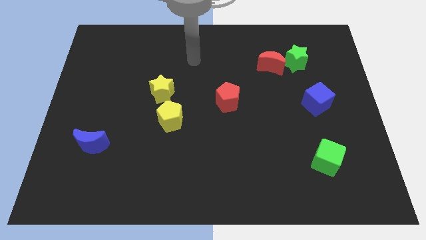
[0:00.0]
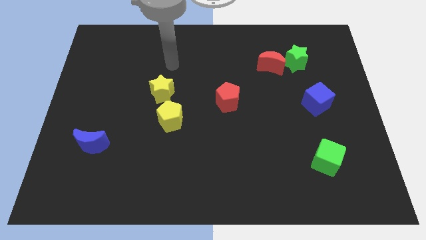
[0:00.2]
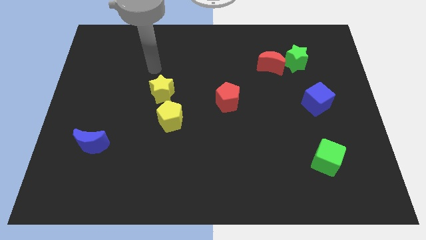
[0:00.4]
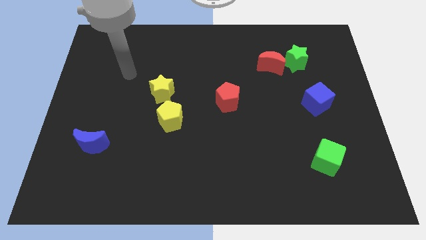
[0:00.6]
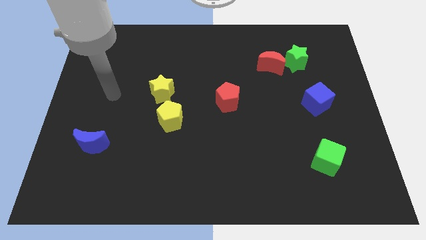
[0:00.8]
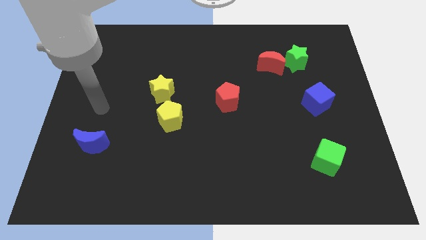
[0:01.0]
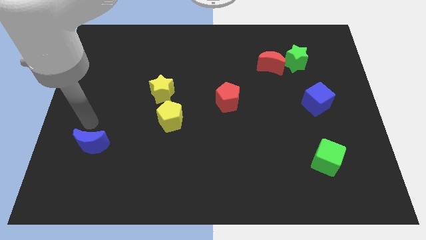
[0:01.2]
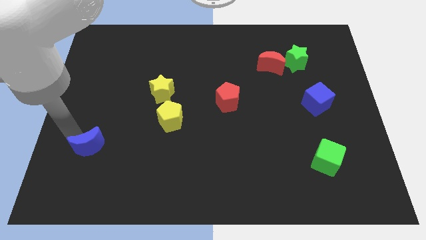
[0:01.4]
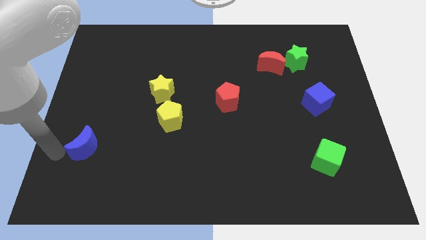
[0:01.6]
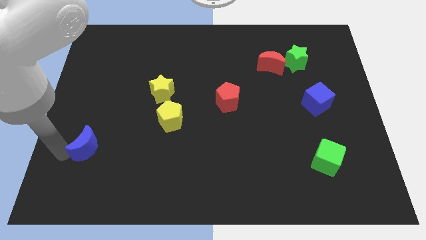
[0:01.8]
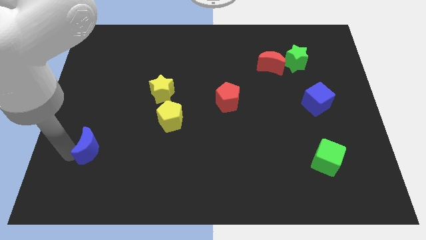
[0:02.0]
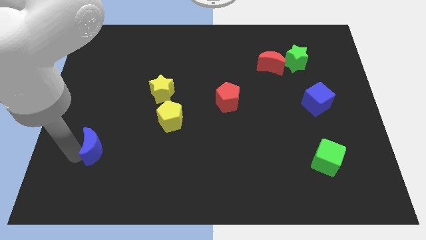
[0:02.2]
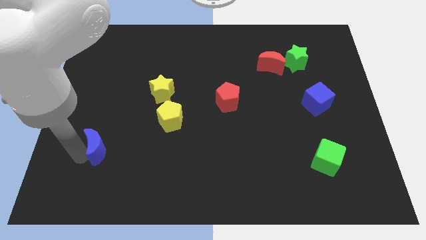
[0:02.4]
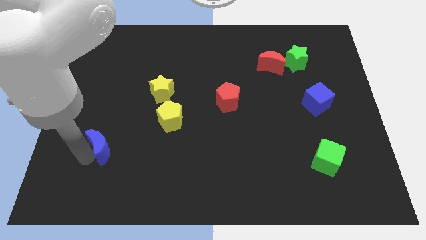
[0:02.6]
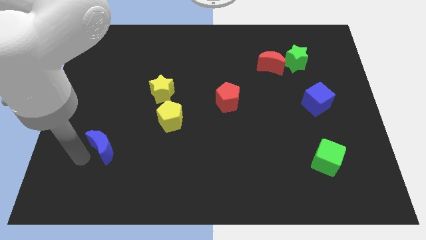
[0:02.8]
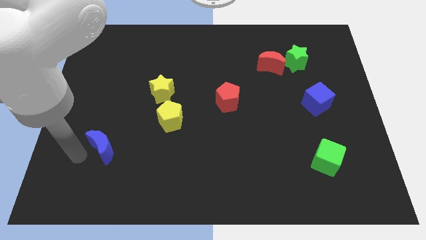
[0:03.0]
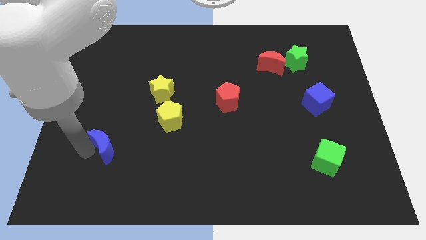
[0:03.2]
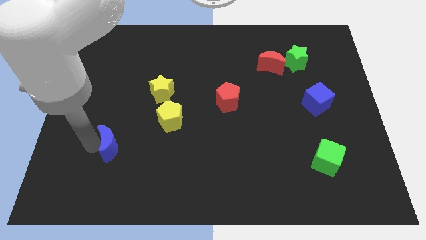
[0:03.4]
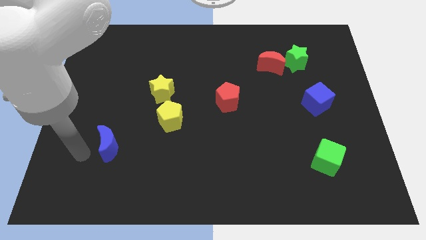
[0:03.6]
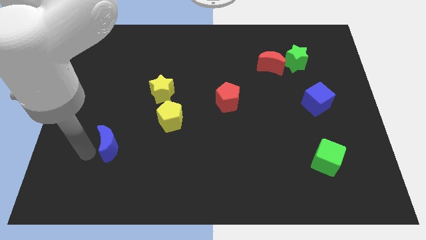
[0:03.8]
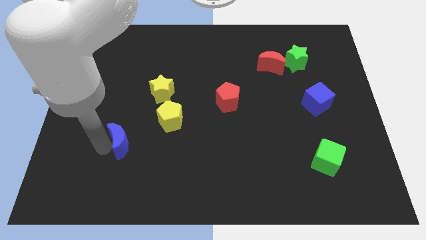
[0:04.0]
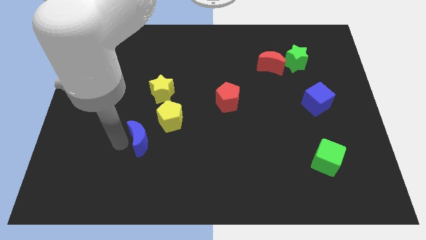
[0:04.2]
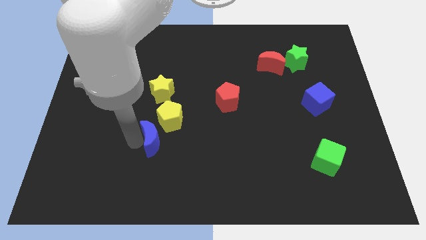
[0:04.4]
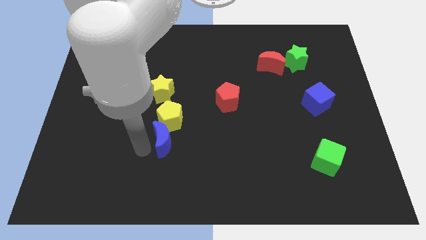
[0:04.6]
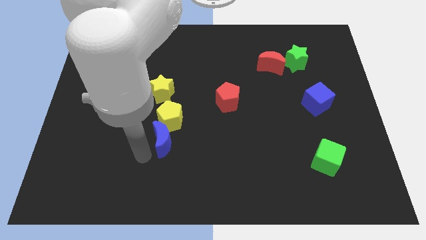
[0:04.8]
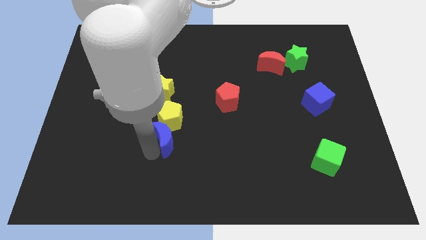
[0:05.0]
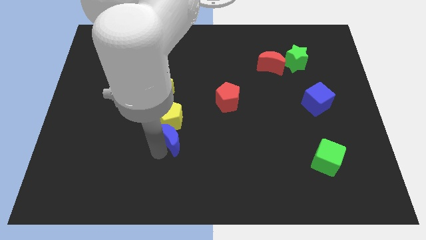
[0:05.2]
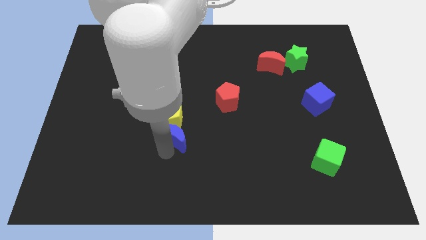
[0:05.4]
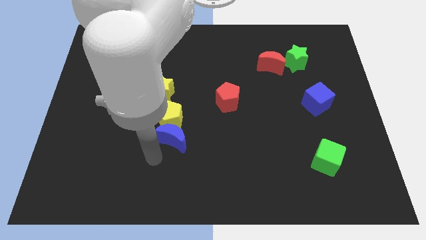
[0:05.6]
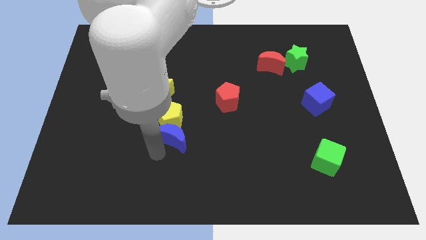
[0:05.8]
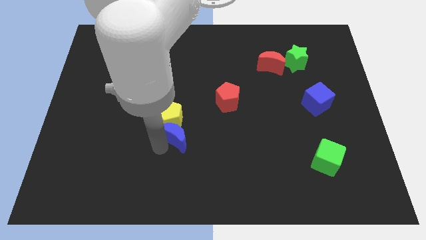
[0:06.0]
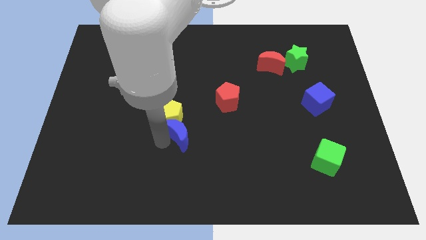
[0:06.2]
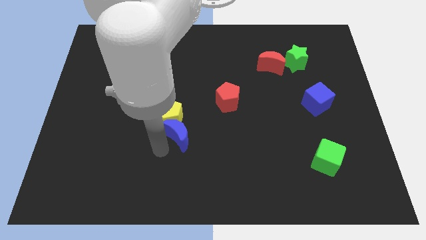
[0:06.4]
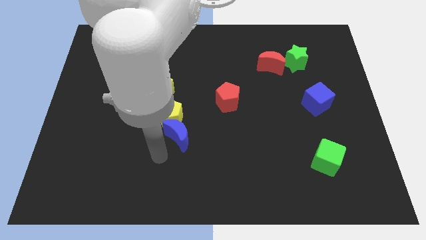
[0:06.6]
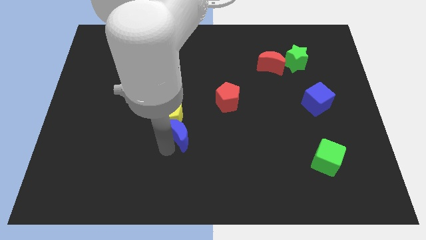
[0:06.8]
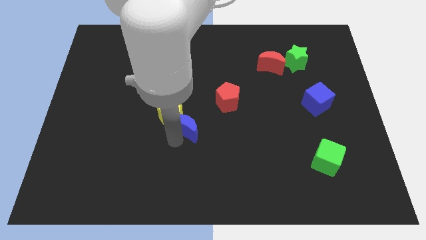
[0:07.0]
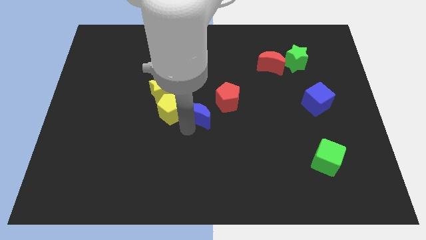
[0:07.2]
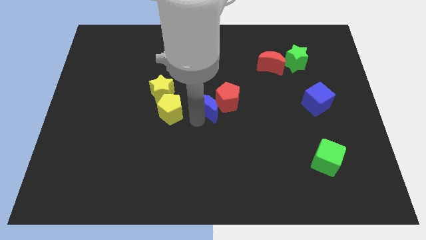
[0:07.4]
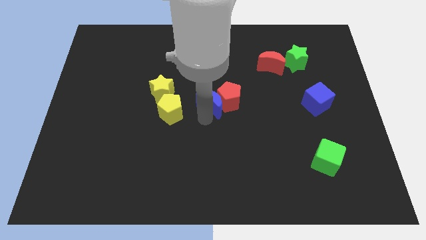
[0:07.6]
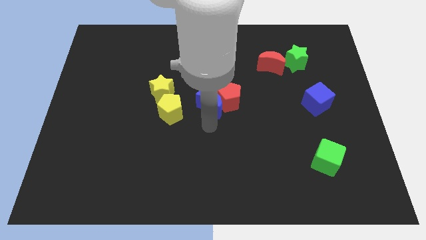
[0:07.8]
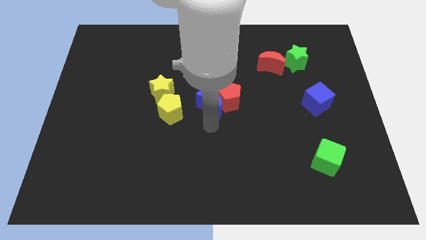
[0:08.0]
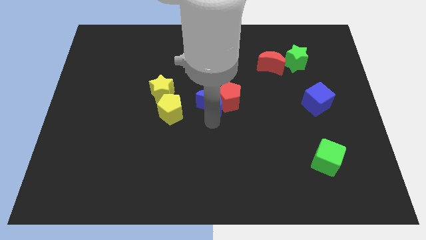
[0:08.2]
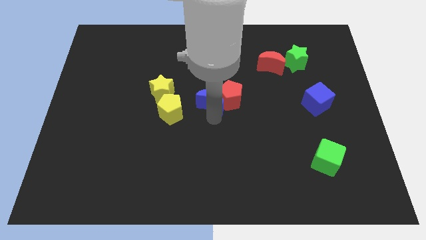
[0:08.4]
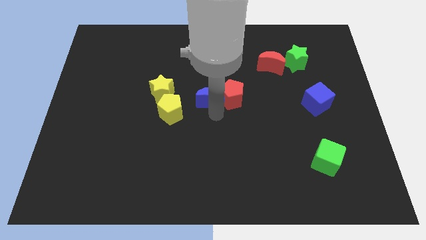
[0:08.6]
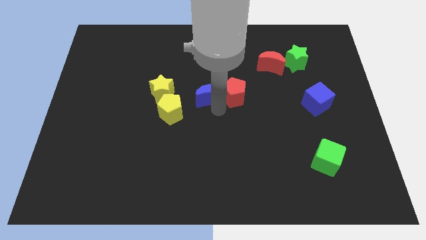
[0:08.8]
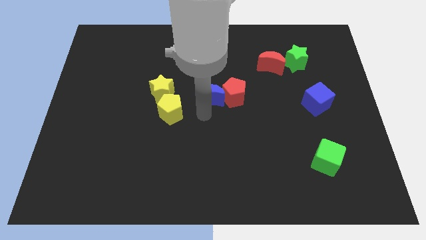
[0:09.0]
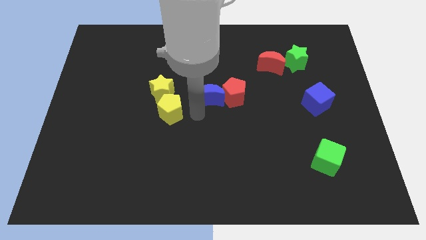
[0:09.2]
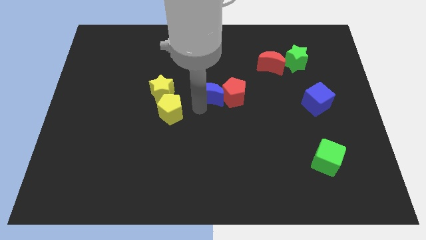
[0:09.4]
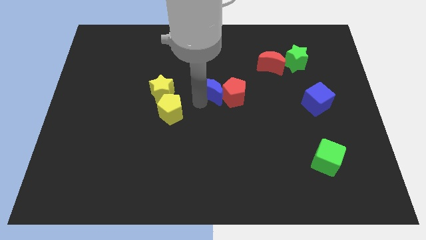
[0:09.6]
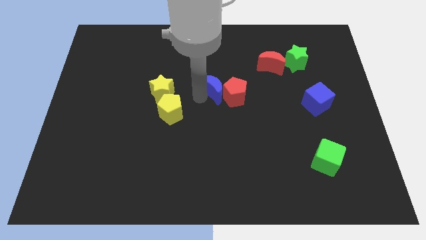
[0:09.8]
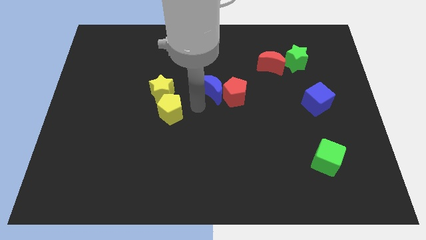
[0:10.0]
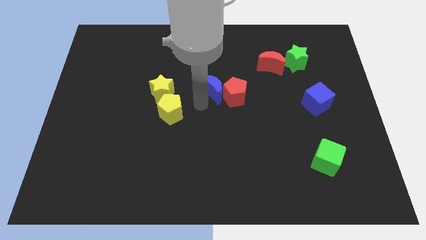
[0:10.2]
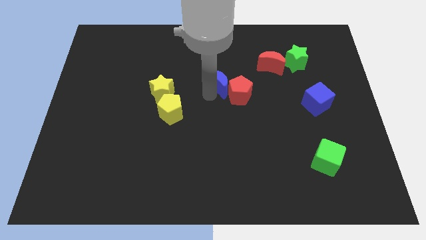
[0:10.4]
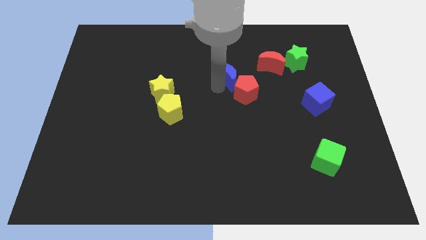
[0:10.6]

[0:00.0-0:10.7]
push the blue moon to the left side of the red moon

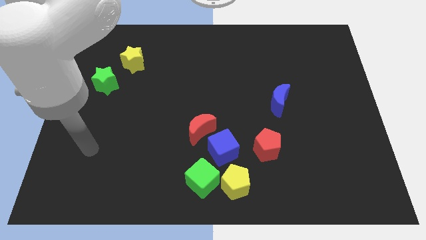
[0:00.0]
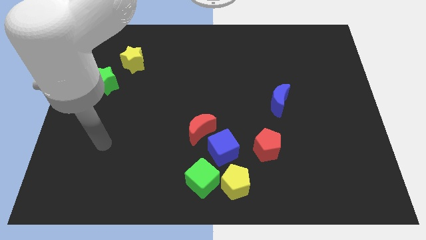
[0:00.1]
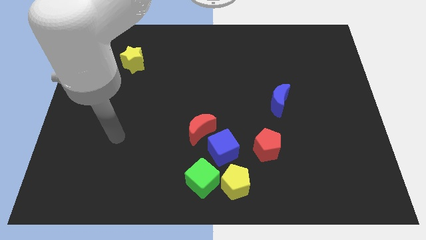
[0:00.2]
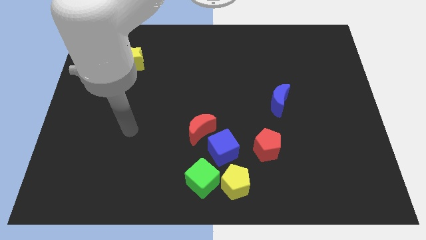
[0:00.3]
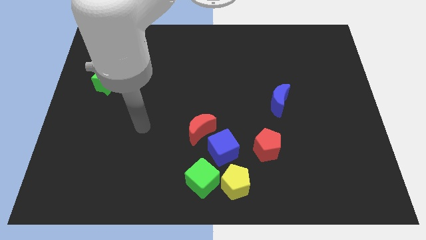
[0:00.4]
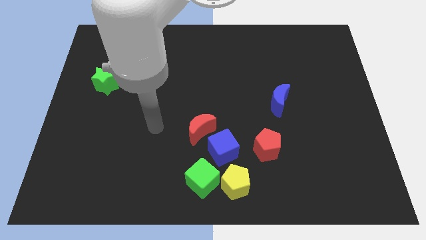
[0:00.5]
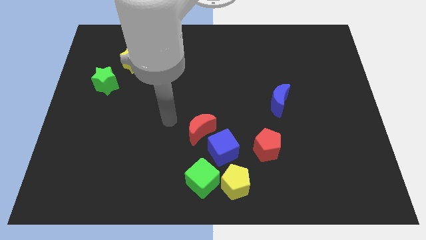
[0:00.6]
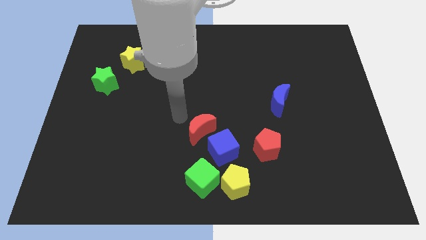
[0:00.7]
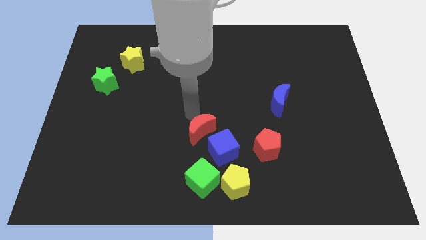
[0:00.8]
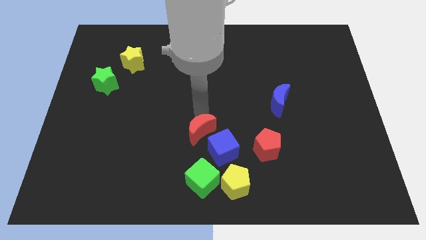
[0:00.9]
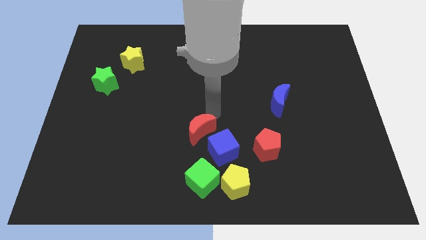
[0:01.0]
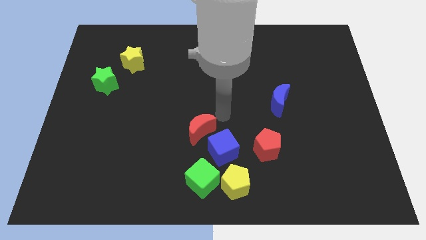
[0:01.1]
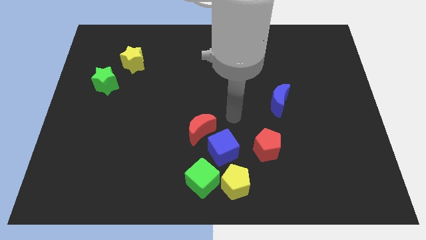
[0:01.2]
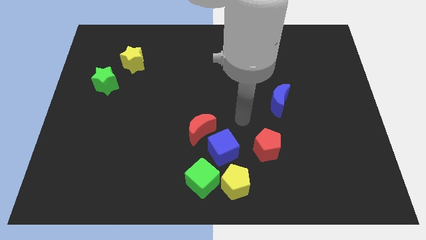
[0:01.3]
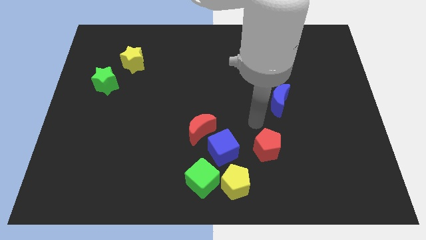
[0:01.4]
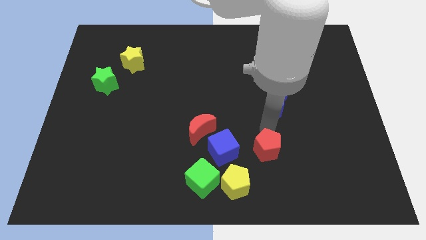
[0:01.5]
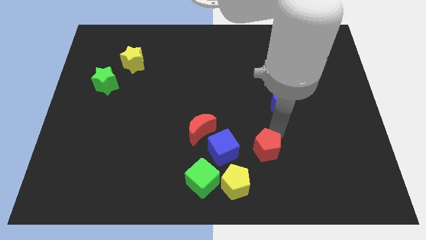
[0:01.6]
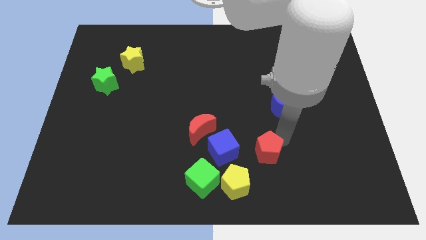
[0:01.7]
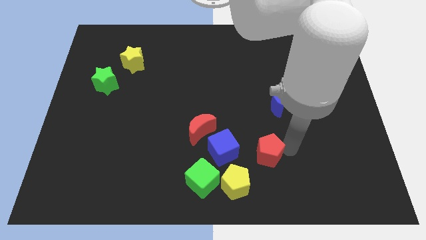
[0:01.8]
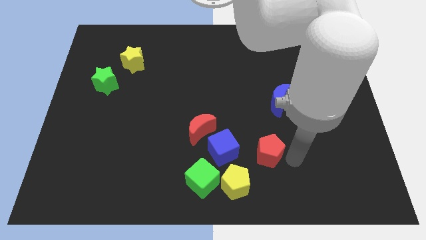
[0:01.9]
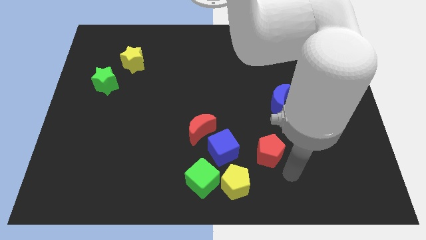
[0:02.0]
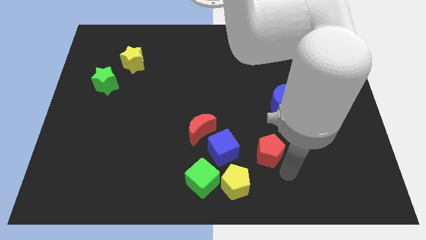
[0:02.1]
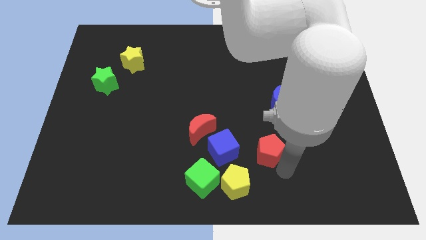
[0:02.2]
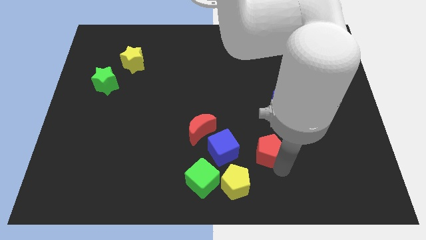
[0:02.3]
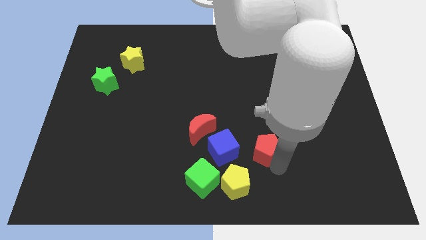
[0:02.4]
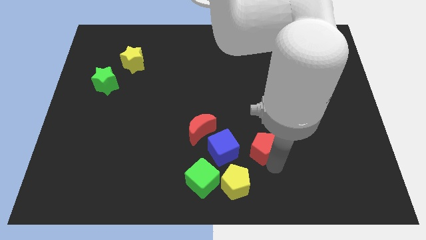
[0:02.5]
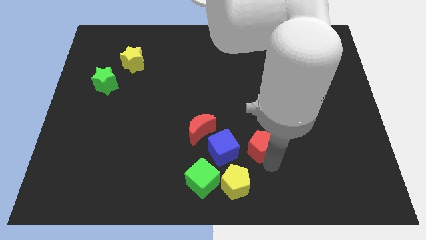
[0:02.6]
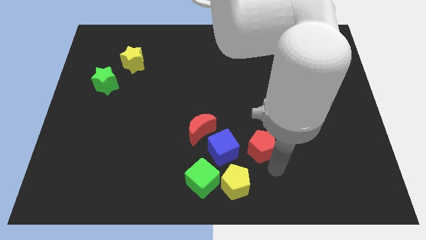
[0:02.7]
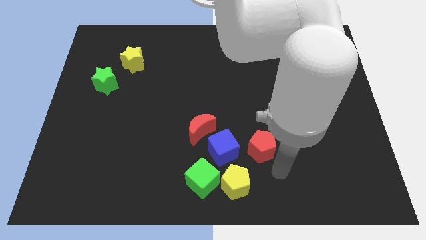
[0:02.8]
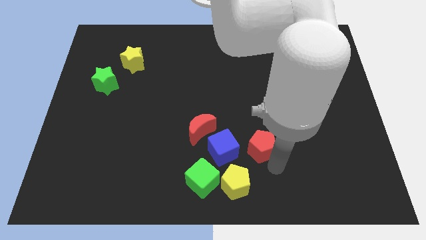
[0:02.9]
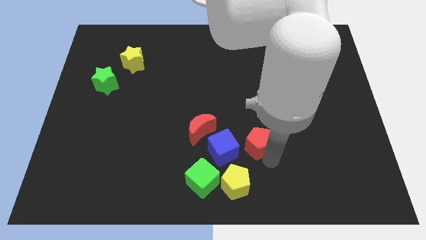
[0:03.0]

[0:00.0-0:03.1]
push the red pentagon to the right side of the red moon
